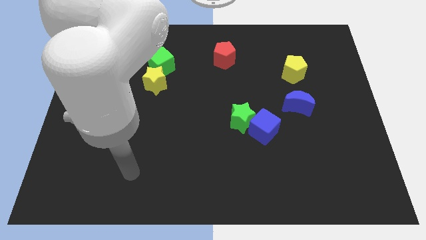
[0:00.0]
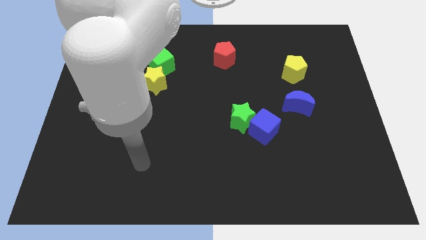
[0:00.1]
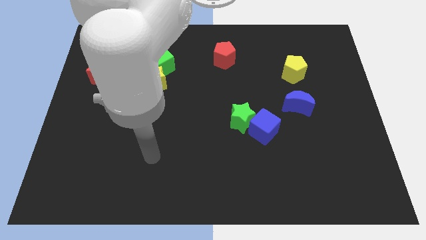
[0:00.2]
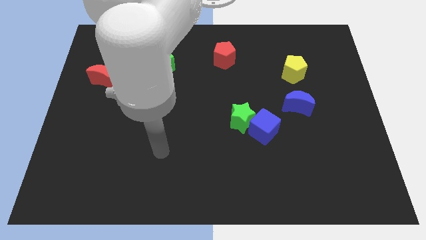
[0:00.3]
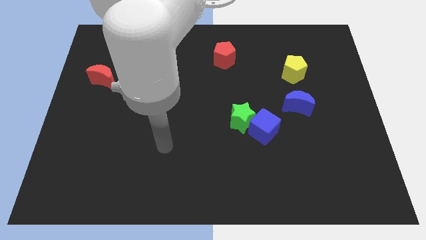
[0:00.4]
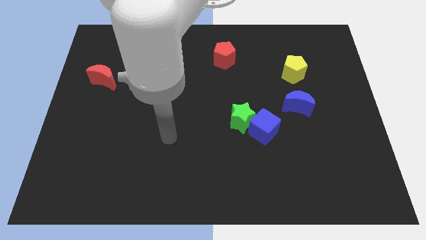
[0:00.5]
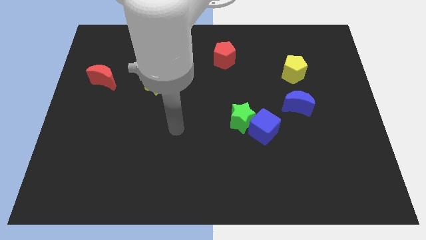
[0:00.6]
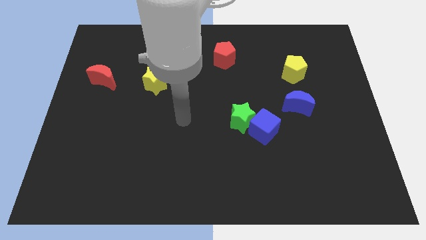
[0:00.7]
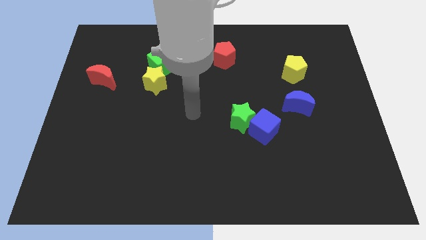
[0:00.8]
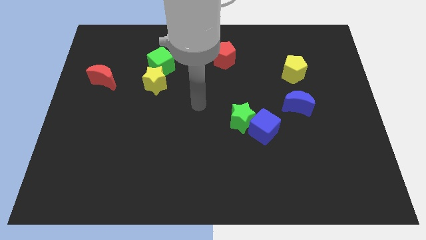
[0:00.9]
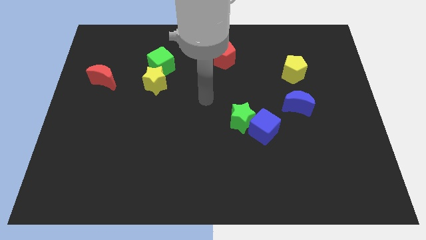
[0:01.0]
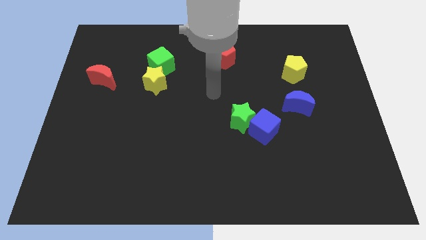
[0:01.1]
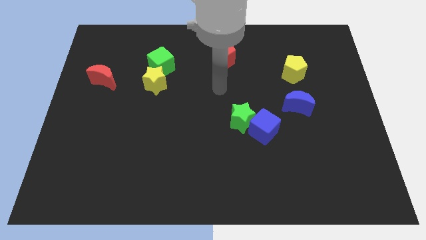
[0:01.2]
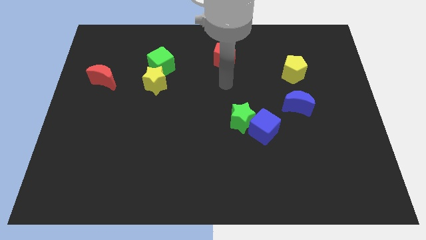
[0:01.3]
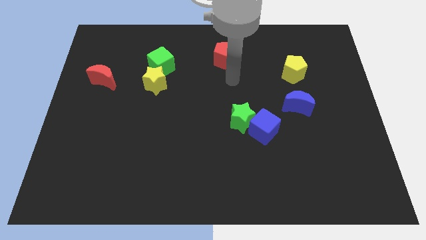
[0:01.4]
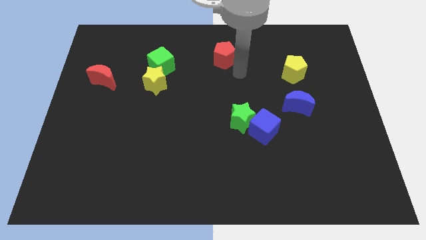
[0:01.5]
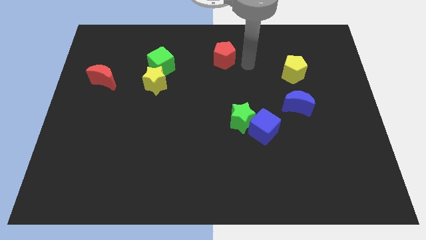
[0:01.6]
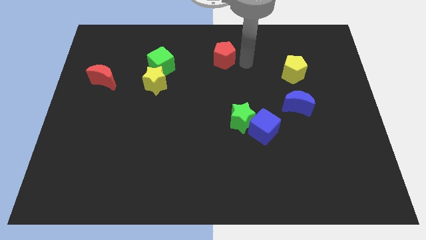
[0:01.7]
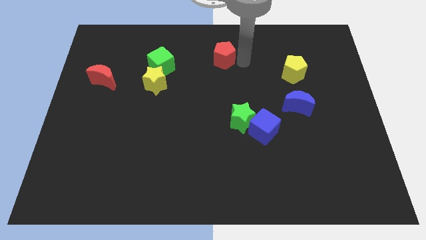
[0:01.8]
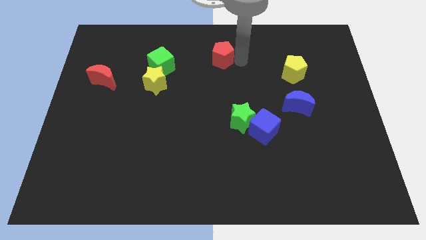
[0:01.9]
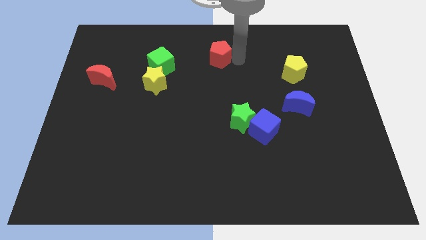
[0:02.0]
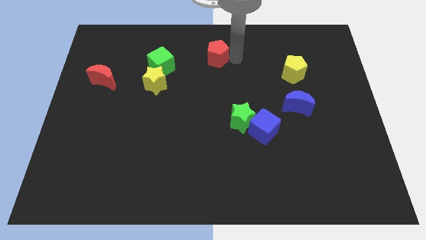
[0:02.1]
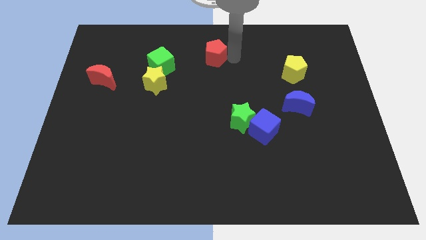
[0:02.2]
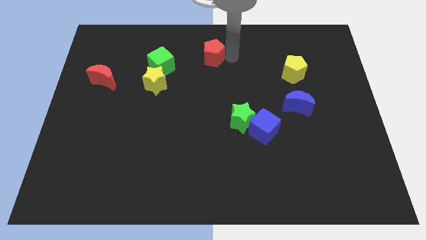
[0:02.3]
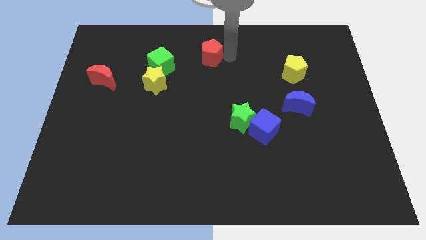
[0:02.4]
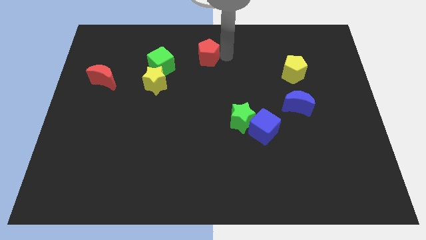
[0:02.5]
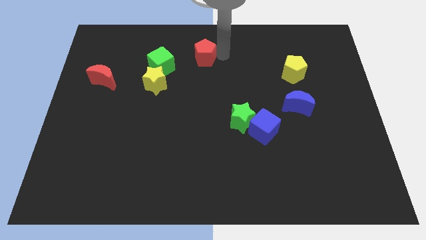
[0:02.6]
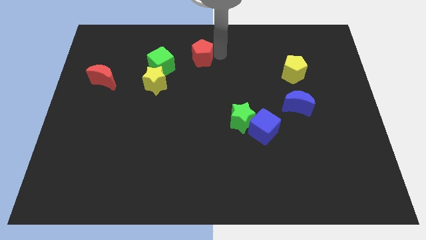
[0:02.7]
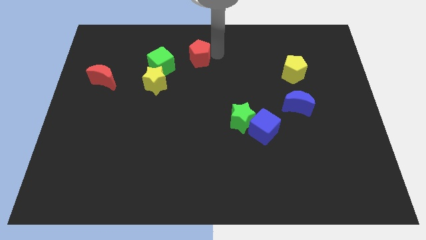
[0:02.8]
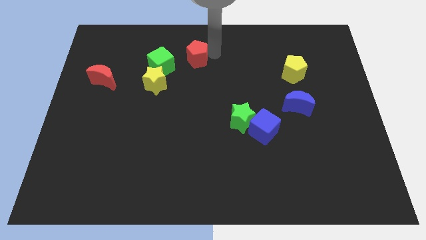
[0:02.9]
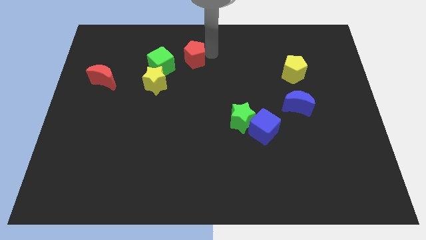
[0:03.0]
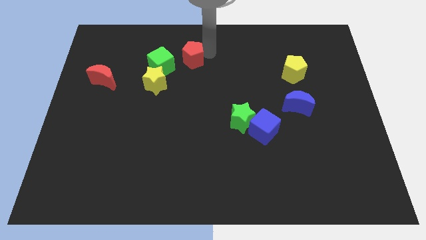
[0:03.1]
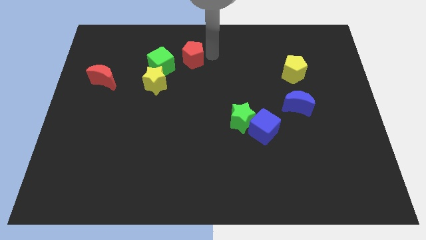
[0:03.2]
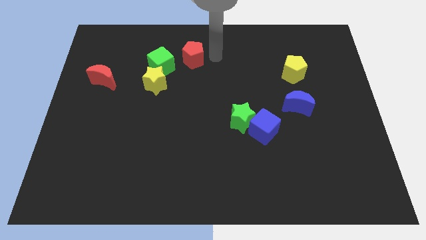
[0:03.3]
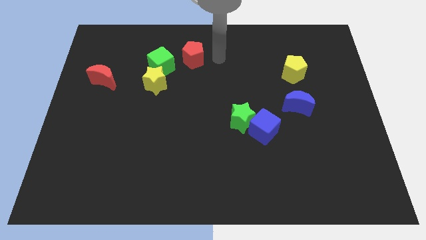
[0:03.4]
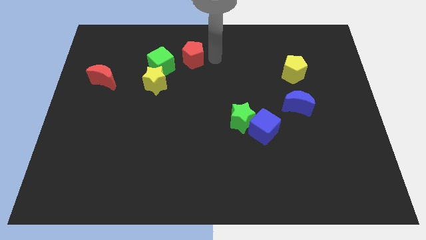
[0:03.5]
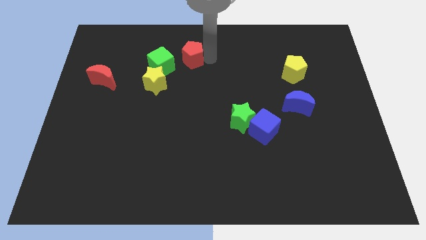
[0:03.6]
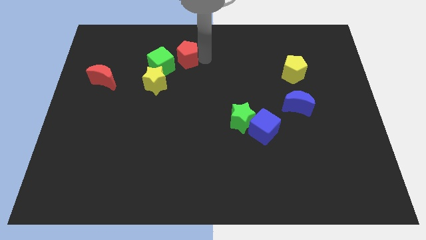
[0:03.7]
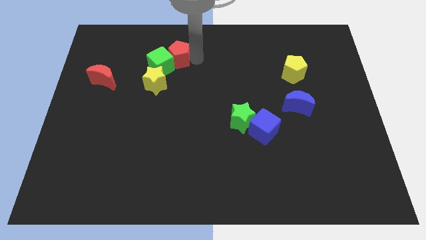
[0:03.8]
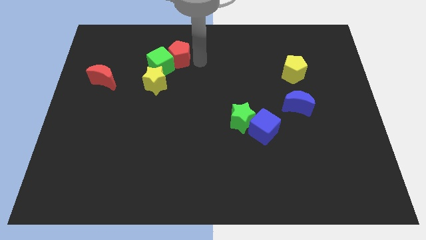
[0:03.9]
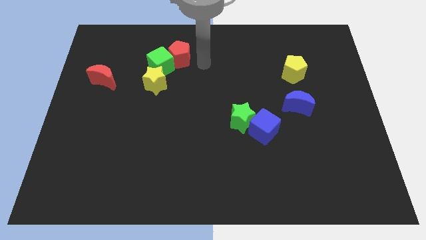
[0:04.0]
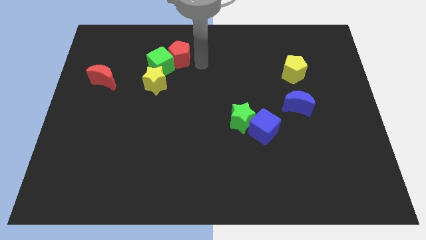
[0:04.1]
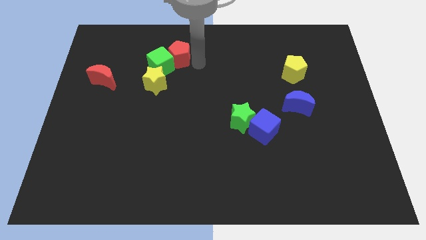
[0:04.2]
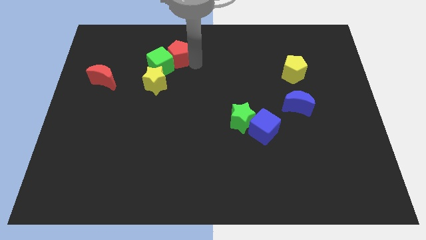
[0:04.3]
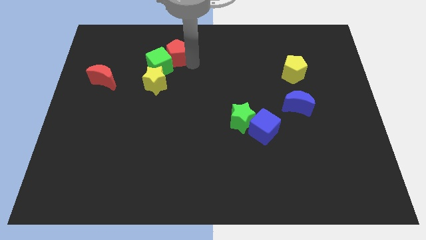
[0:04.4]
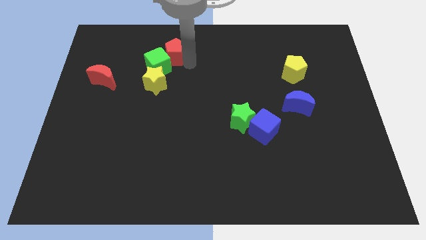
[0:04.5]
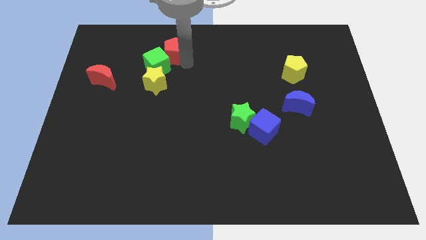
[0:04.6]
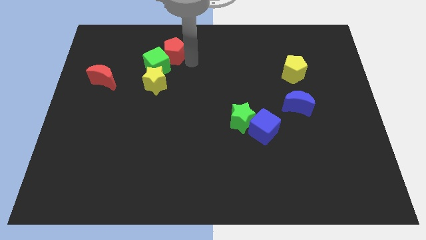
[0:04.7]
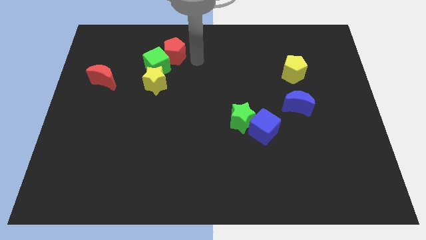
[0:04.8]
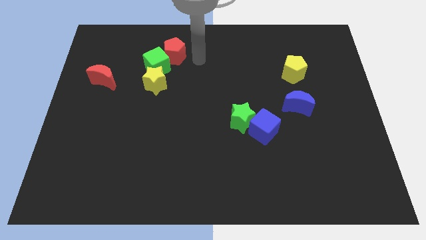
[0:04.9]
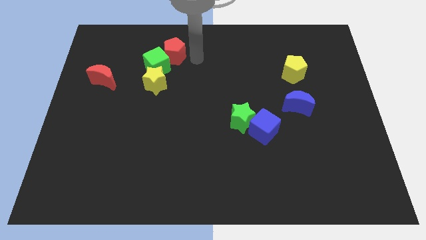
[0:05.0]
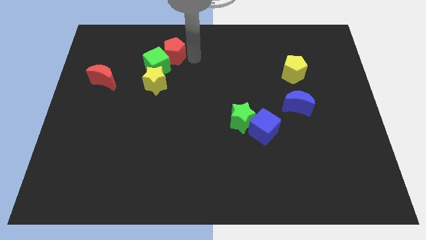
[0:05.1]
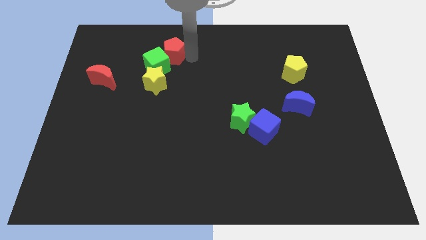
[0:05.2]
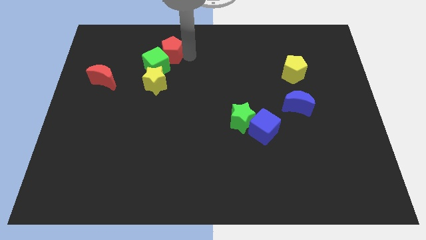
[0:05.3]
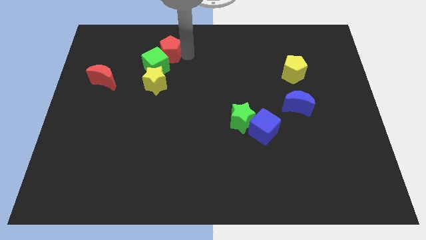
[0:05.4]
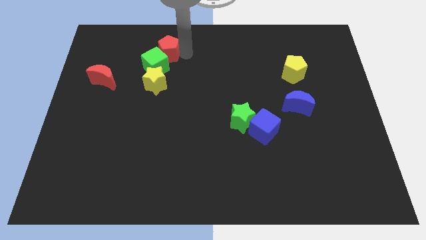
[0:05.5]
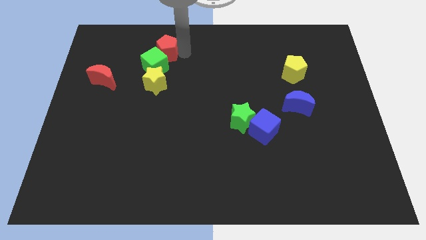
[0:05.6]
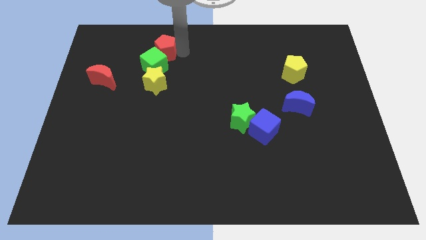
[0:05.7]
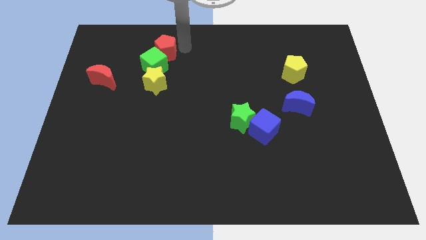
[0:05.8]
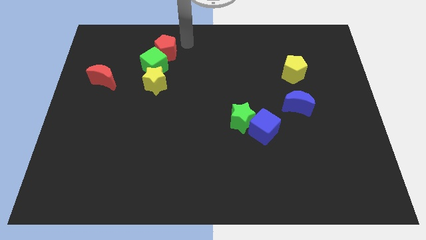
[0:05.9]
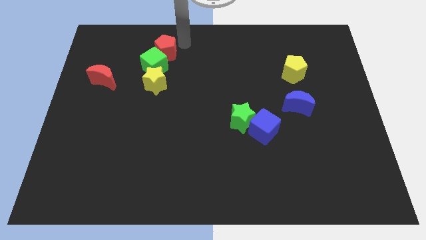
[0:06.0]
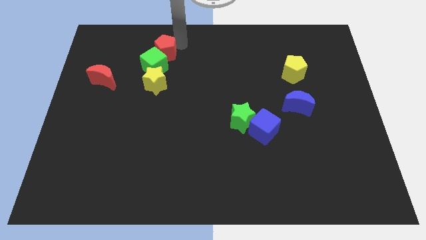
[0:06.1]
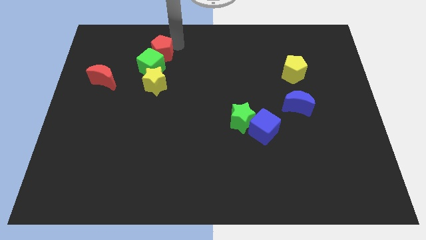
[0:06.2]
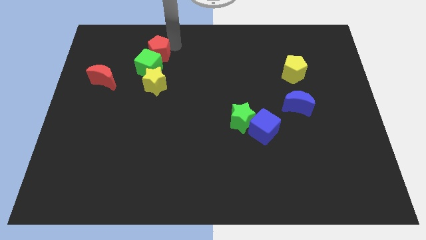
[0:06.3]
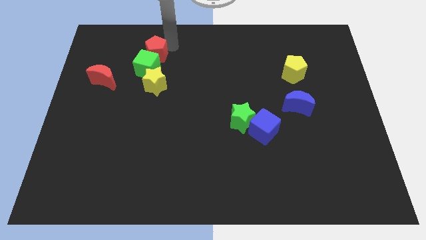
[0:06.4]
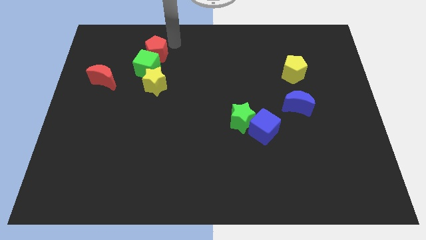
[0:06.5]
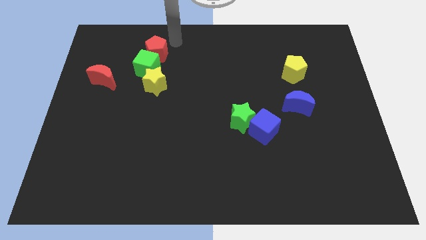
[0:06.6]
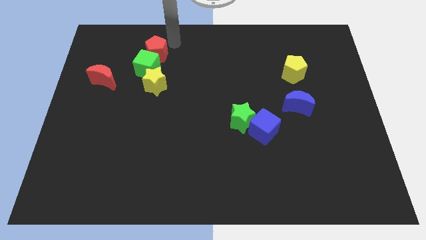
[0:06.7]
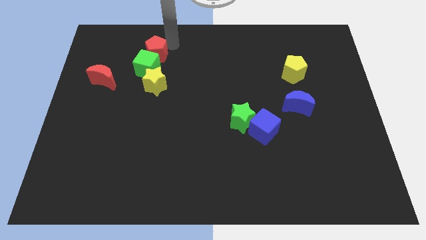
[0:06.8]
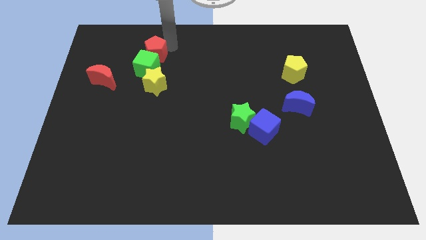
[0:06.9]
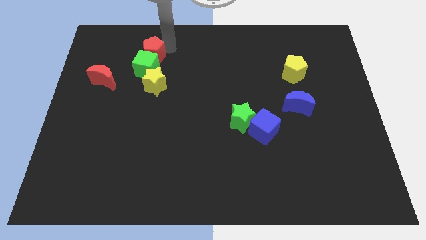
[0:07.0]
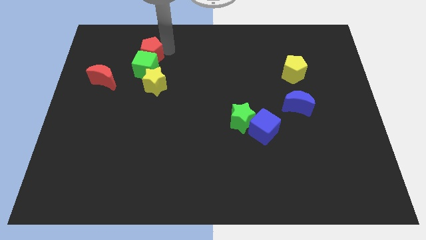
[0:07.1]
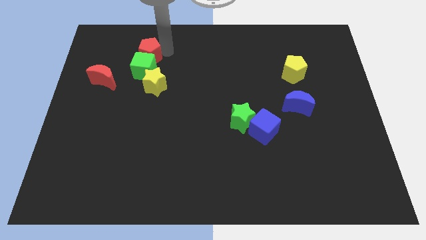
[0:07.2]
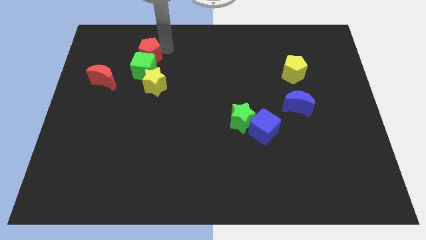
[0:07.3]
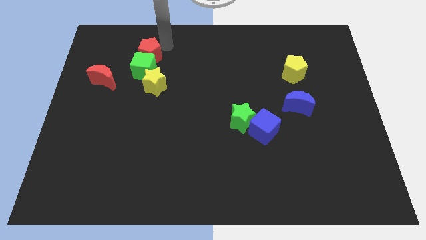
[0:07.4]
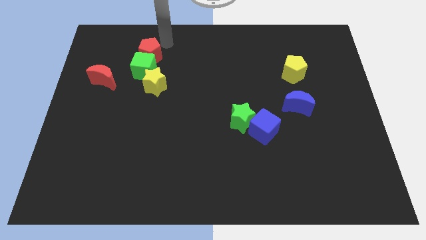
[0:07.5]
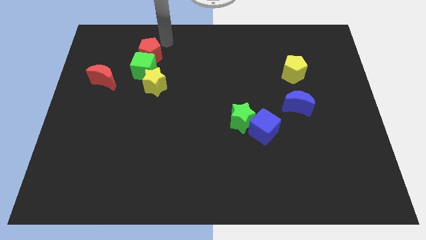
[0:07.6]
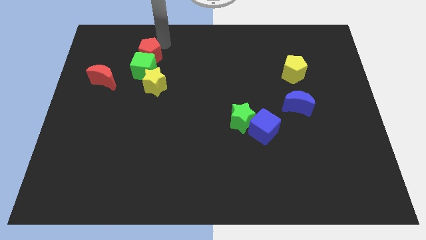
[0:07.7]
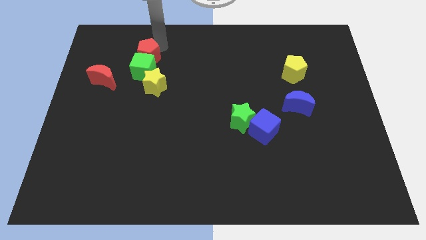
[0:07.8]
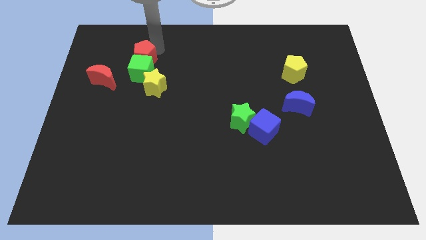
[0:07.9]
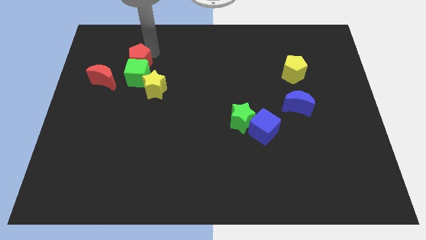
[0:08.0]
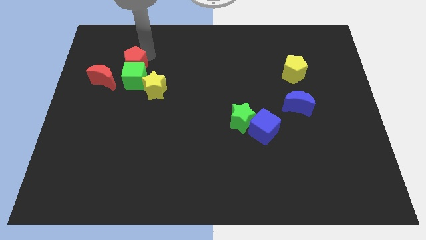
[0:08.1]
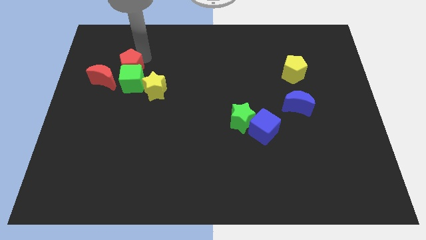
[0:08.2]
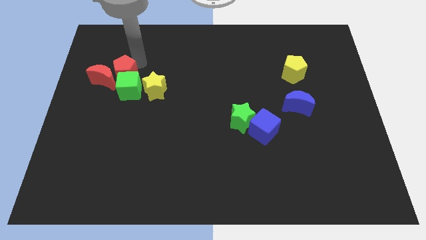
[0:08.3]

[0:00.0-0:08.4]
slide the red pentagon to the red moon
